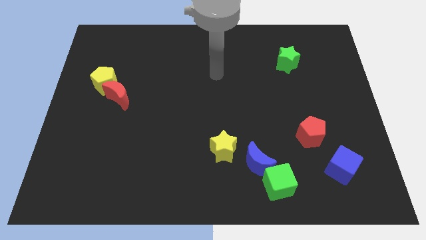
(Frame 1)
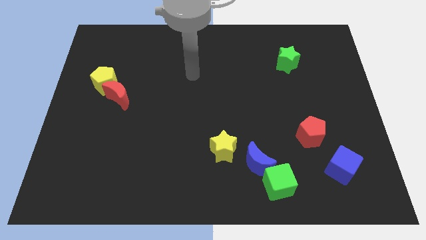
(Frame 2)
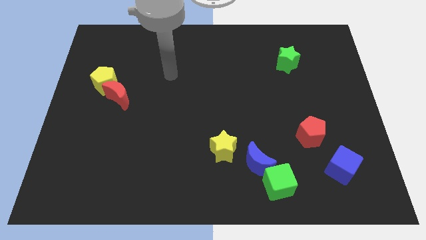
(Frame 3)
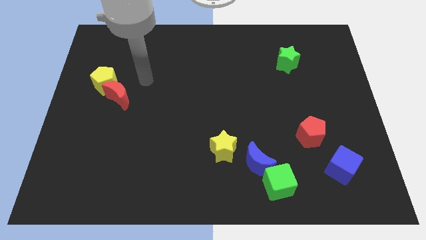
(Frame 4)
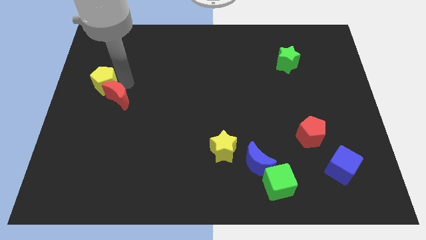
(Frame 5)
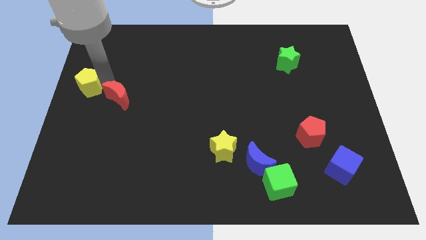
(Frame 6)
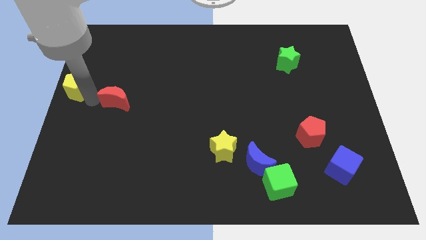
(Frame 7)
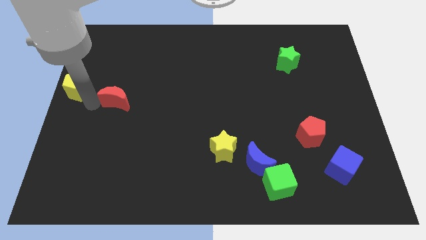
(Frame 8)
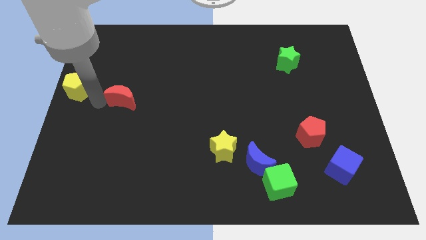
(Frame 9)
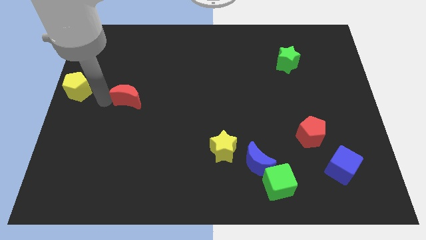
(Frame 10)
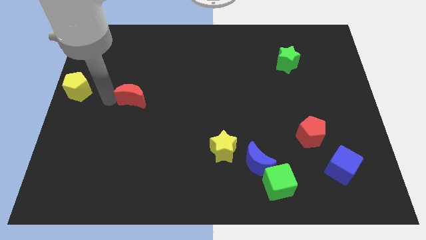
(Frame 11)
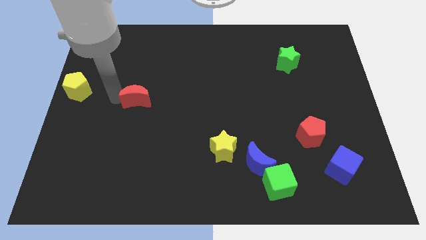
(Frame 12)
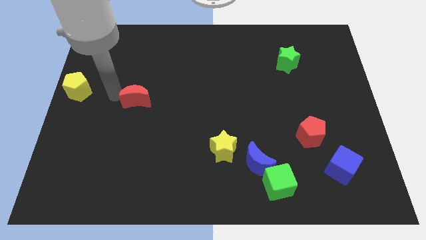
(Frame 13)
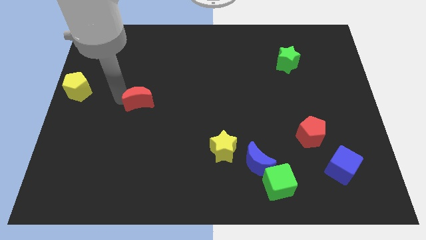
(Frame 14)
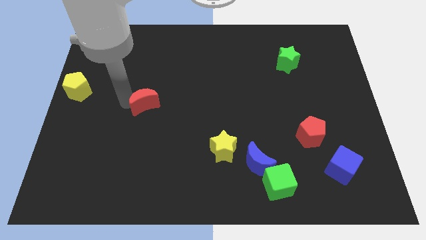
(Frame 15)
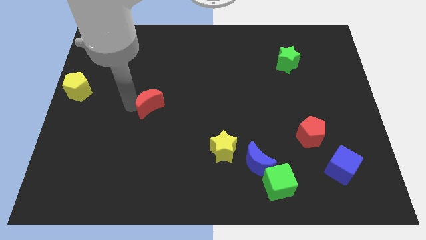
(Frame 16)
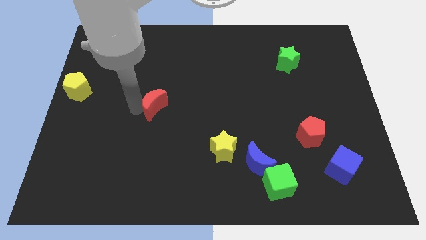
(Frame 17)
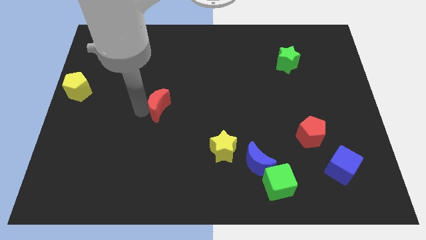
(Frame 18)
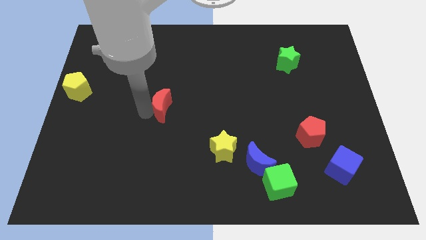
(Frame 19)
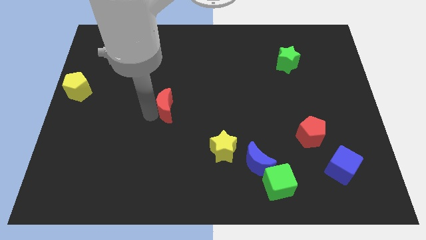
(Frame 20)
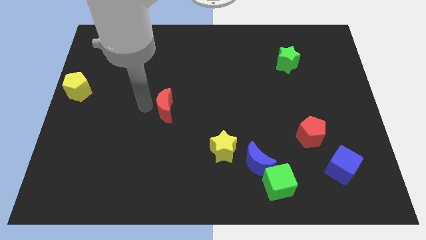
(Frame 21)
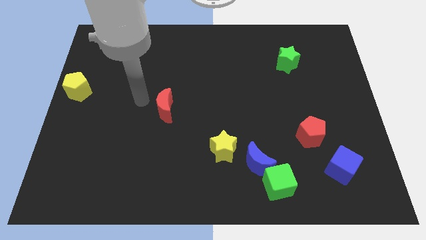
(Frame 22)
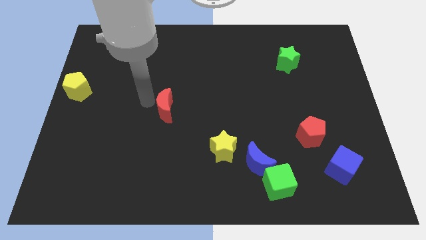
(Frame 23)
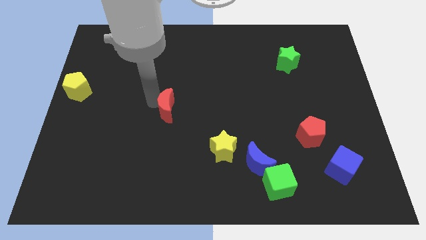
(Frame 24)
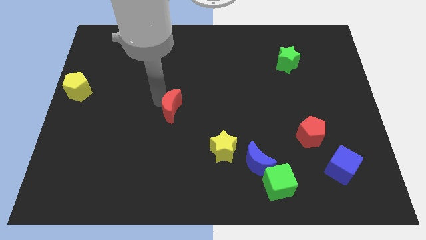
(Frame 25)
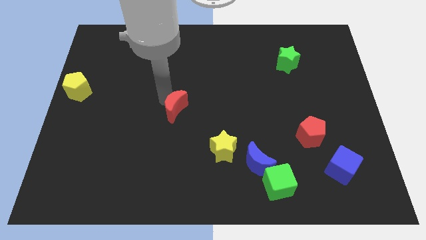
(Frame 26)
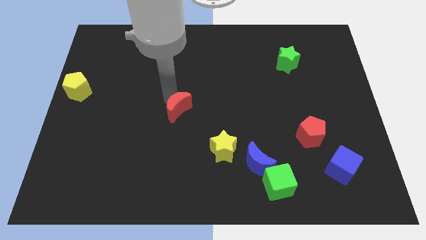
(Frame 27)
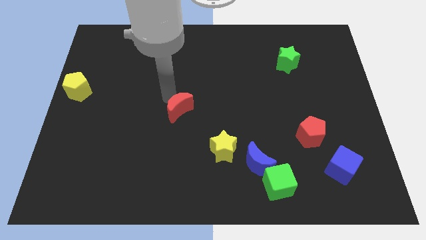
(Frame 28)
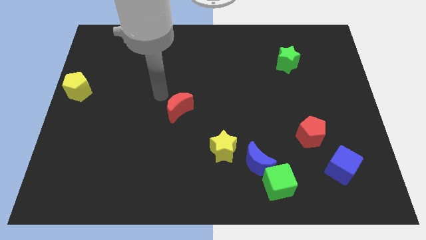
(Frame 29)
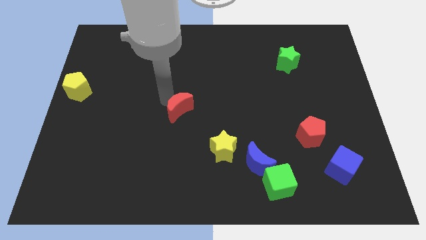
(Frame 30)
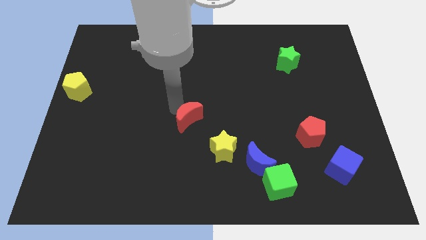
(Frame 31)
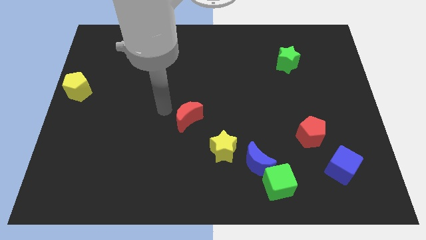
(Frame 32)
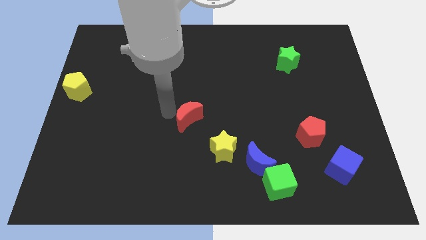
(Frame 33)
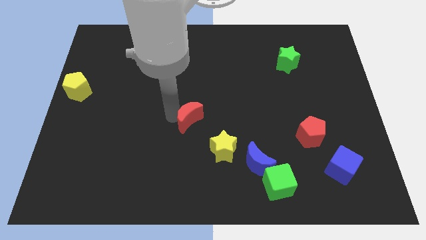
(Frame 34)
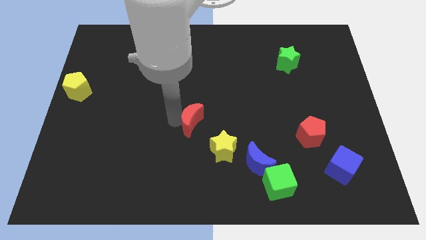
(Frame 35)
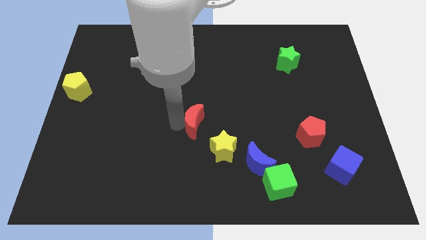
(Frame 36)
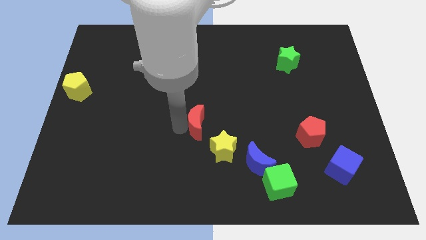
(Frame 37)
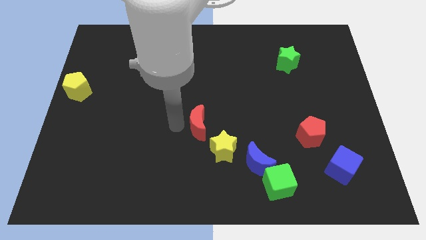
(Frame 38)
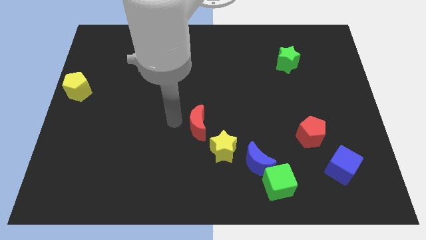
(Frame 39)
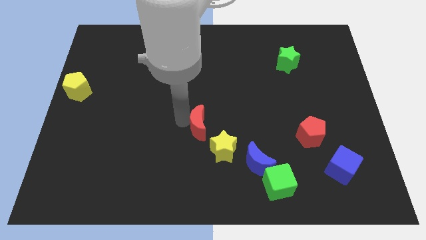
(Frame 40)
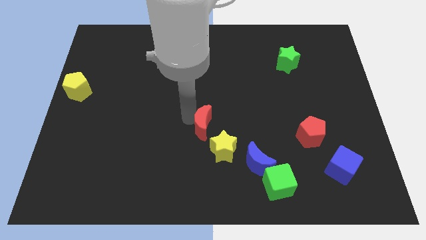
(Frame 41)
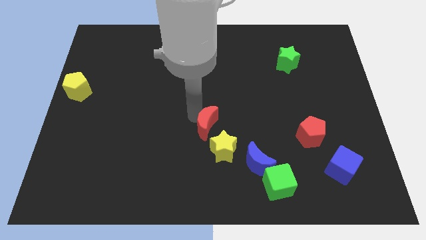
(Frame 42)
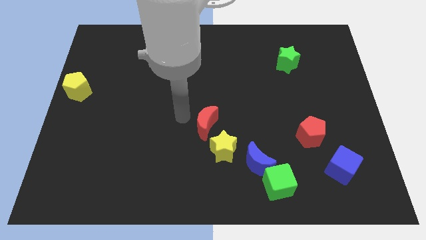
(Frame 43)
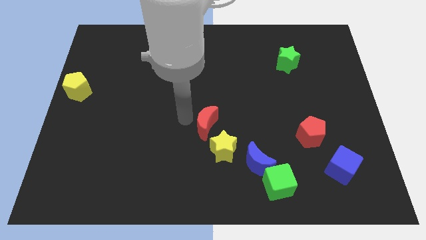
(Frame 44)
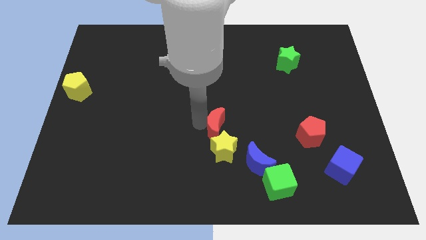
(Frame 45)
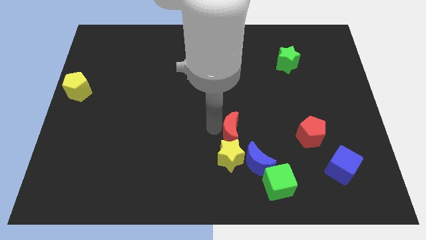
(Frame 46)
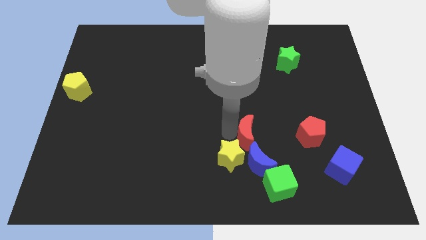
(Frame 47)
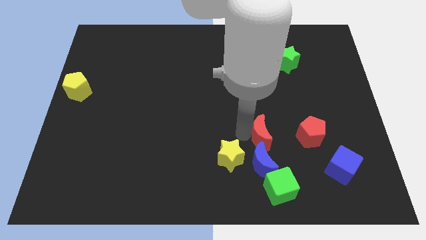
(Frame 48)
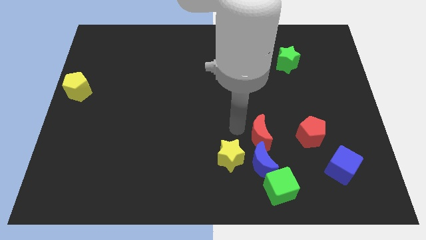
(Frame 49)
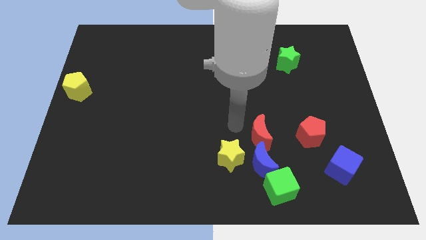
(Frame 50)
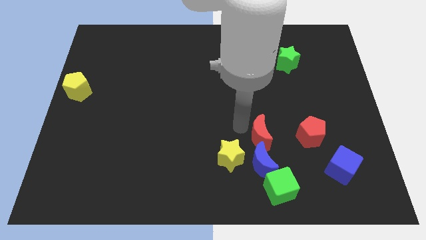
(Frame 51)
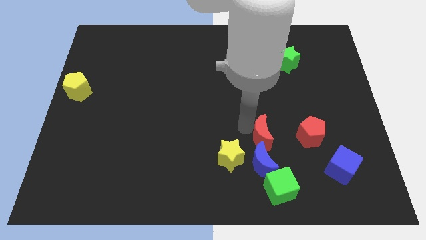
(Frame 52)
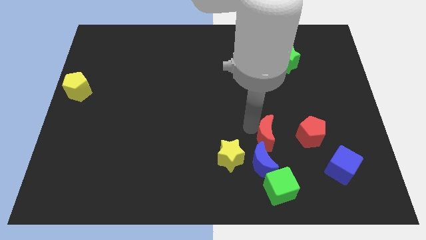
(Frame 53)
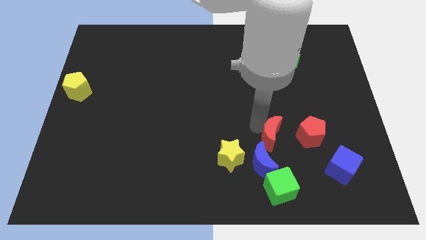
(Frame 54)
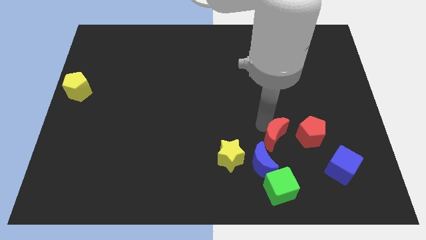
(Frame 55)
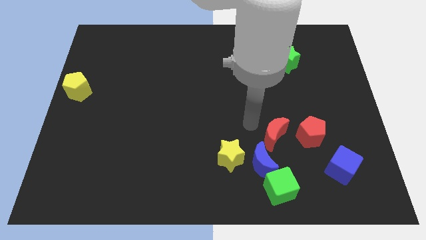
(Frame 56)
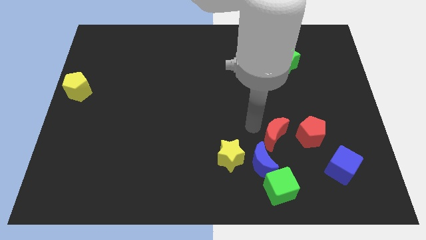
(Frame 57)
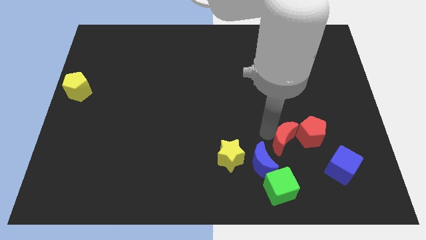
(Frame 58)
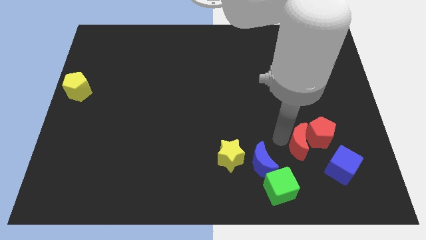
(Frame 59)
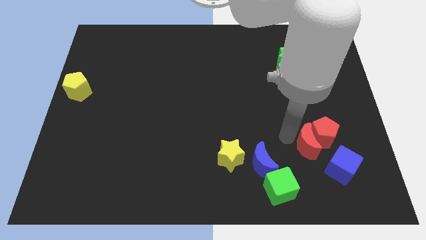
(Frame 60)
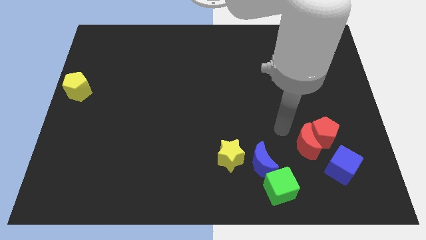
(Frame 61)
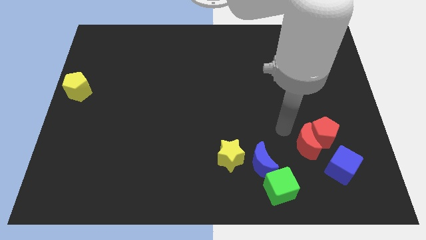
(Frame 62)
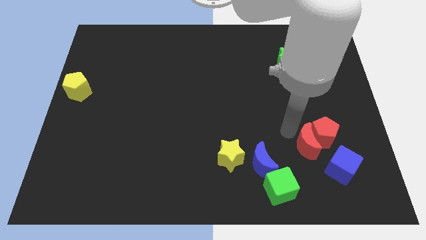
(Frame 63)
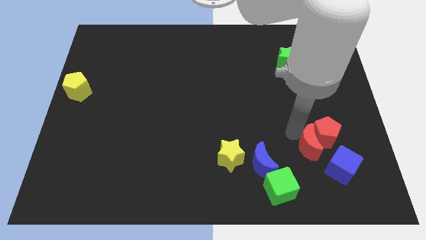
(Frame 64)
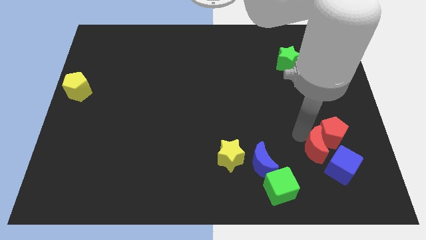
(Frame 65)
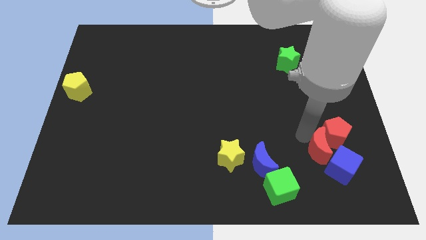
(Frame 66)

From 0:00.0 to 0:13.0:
move the red moon to the blue cube
